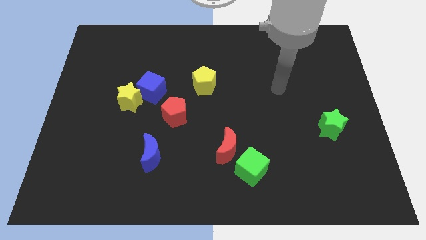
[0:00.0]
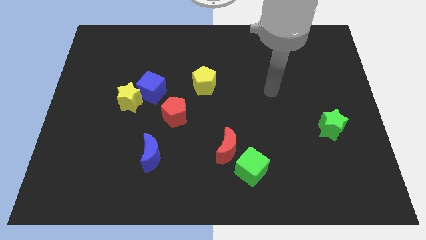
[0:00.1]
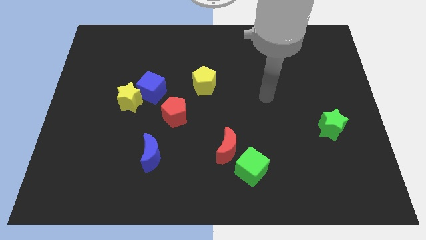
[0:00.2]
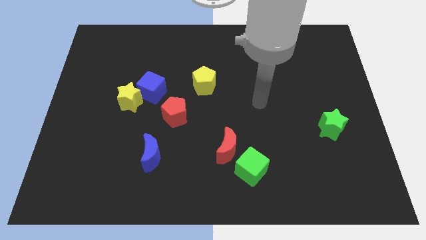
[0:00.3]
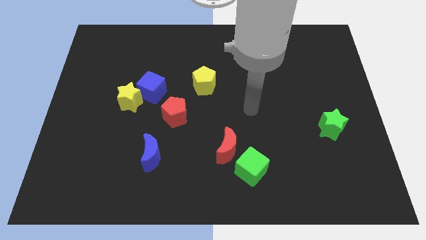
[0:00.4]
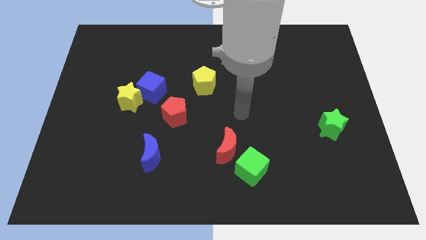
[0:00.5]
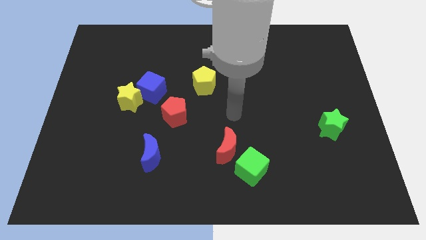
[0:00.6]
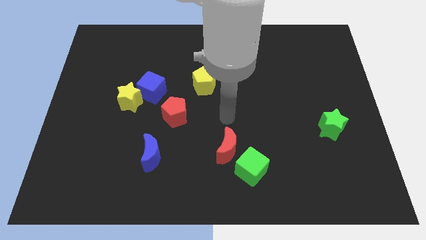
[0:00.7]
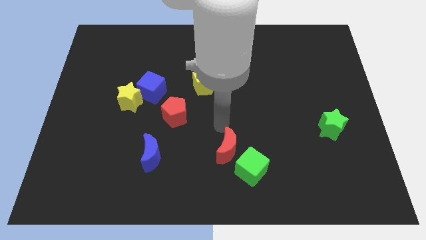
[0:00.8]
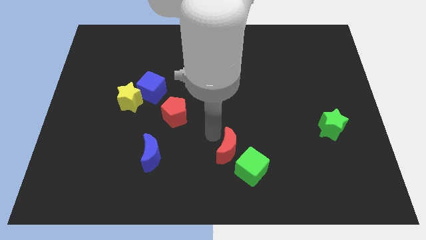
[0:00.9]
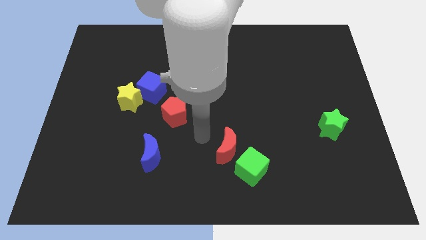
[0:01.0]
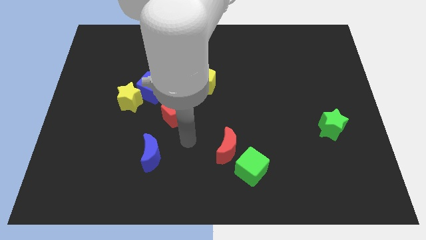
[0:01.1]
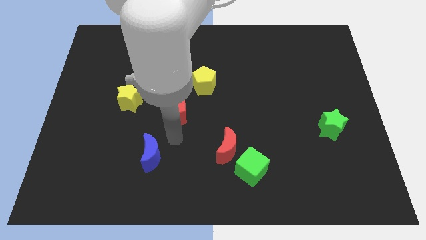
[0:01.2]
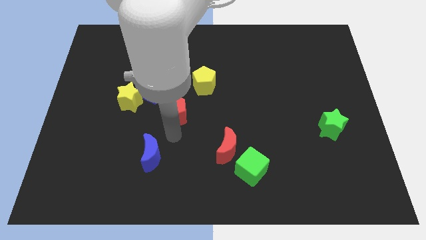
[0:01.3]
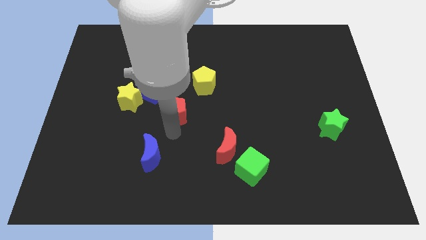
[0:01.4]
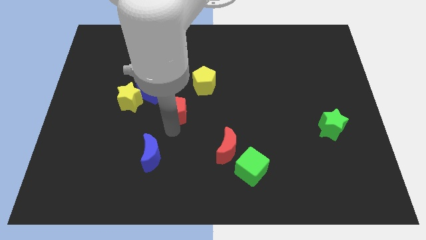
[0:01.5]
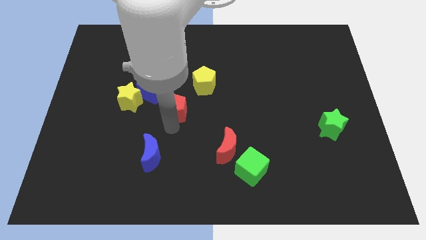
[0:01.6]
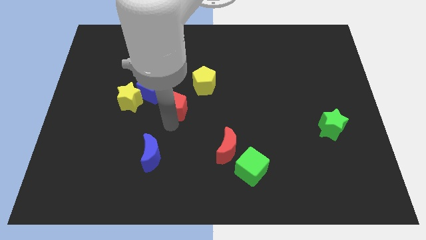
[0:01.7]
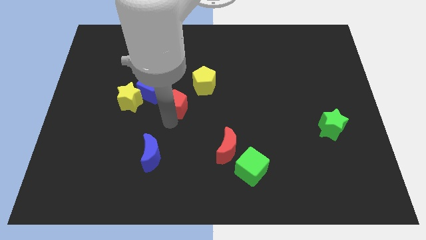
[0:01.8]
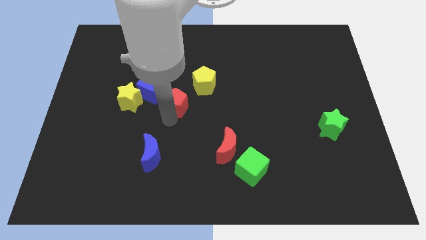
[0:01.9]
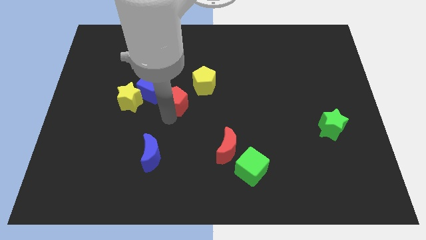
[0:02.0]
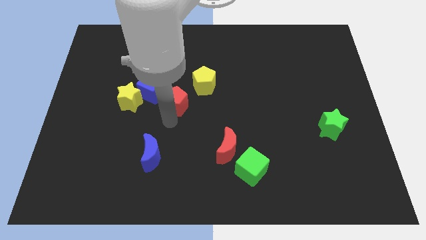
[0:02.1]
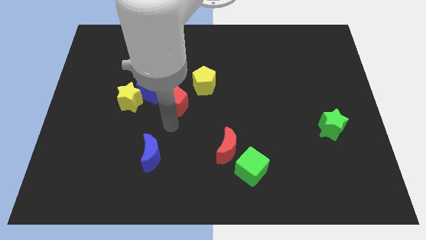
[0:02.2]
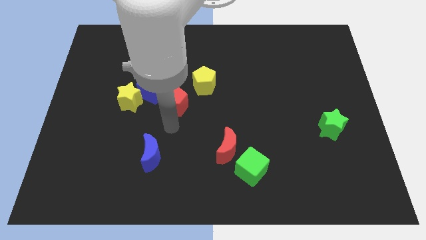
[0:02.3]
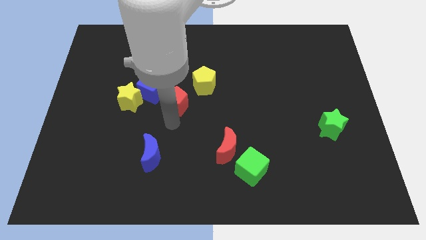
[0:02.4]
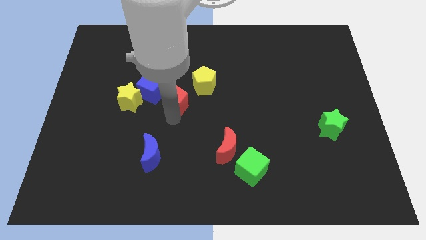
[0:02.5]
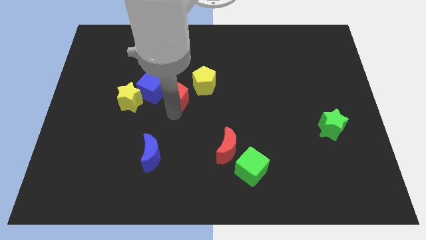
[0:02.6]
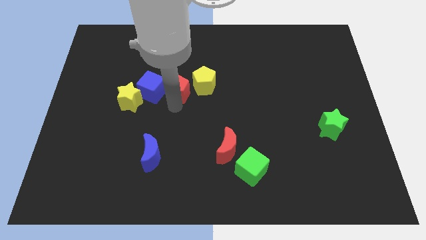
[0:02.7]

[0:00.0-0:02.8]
slide the red pentagon a little upwards

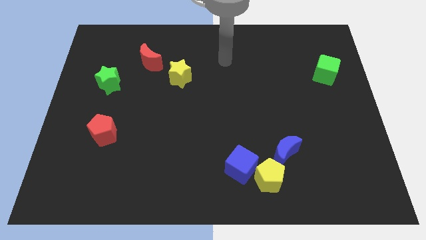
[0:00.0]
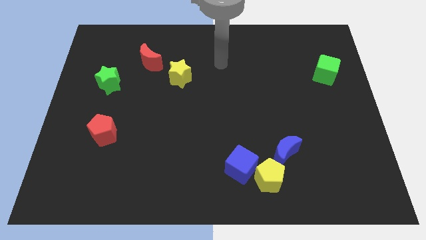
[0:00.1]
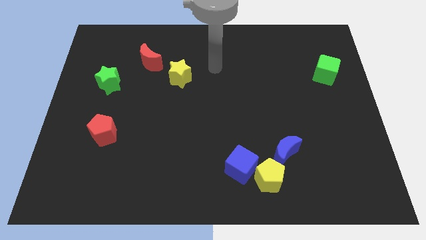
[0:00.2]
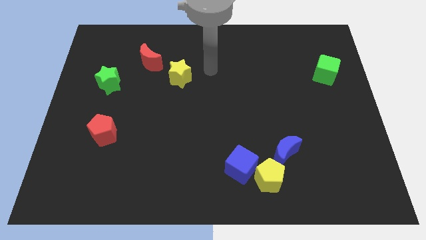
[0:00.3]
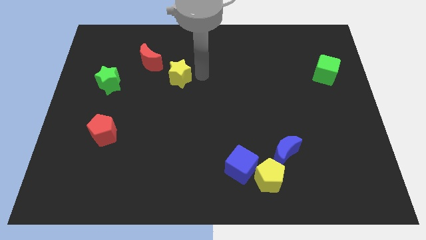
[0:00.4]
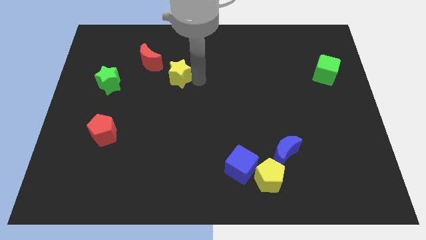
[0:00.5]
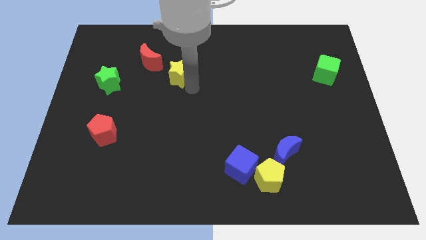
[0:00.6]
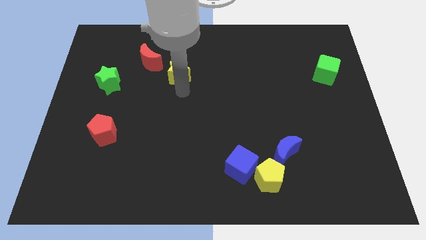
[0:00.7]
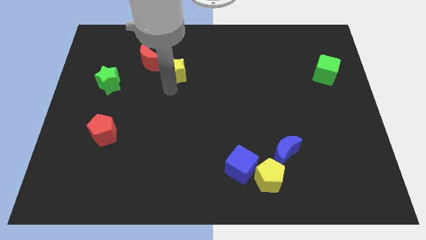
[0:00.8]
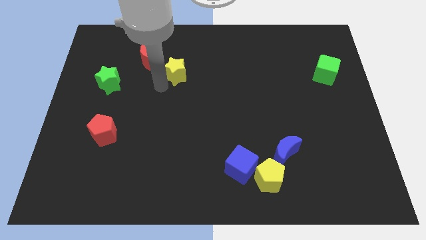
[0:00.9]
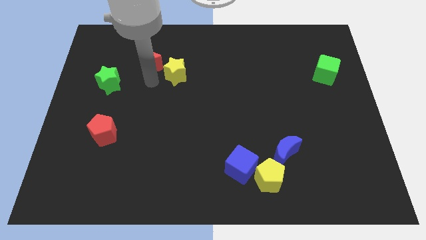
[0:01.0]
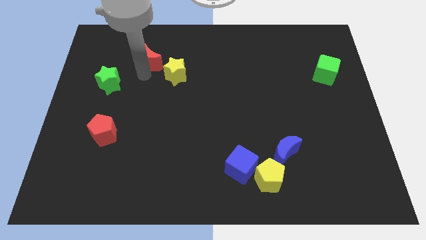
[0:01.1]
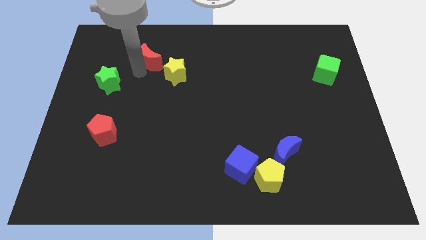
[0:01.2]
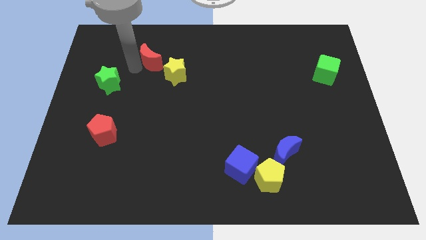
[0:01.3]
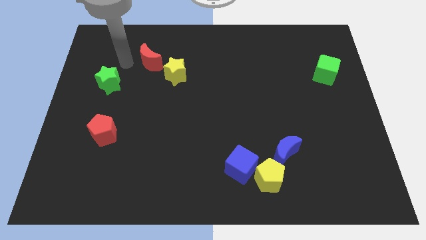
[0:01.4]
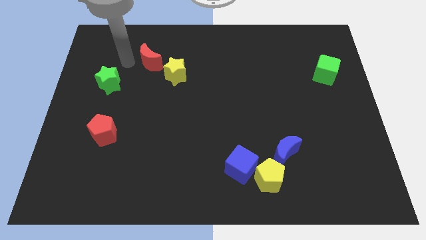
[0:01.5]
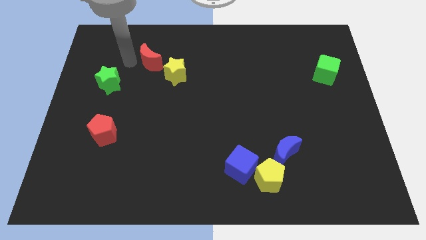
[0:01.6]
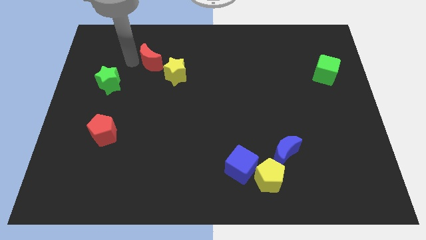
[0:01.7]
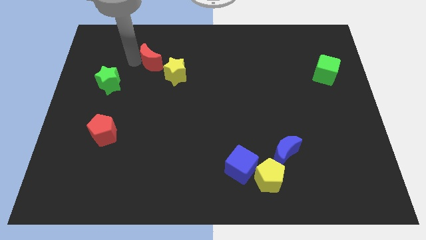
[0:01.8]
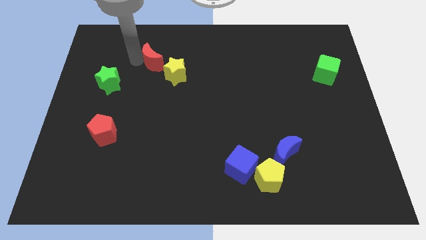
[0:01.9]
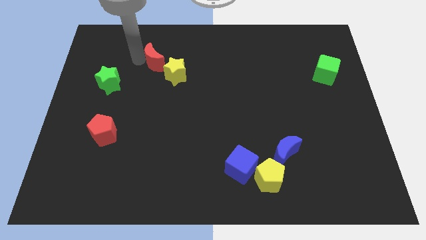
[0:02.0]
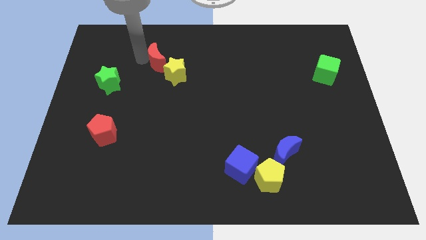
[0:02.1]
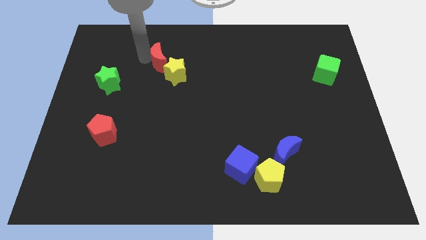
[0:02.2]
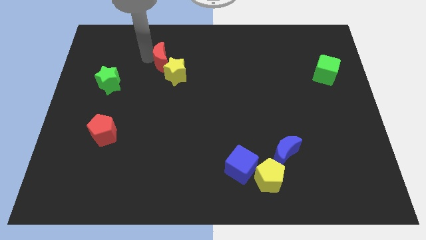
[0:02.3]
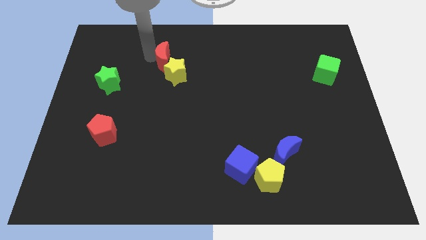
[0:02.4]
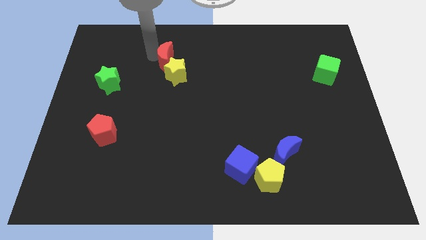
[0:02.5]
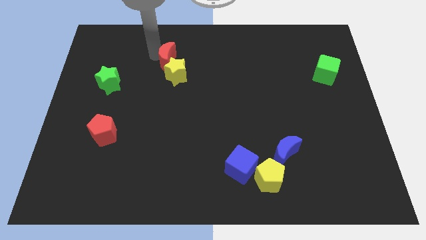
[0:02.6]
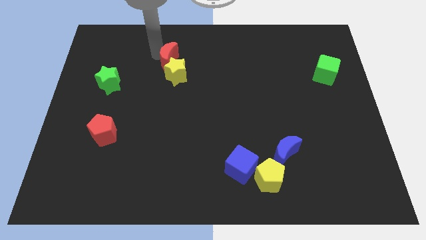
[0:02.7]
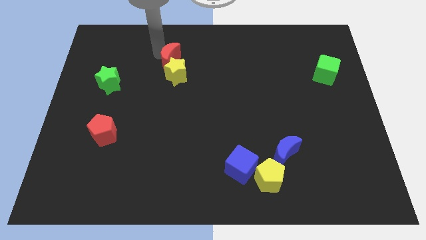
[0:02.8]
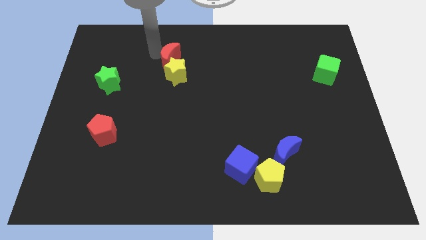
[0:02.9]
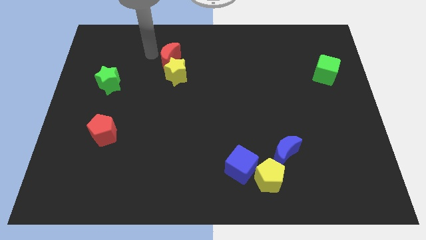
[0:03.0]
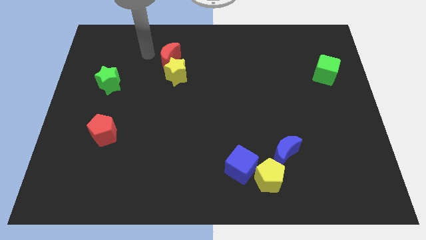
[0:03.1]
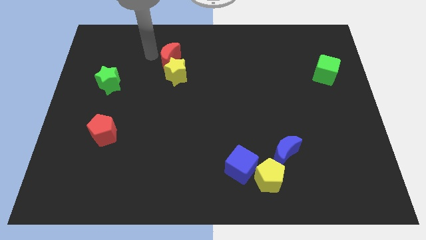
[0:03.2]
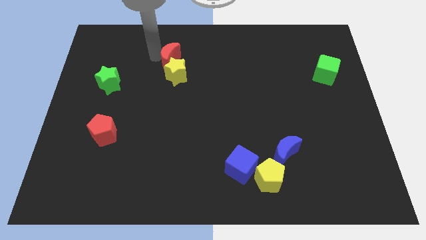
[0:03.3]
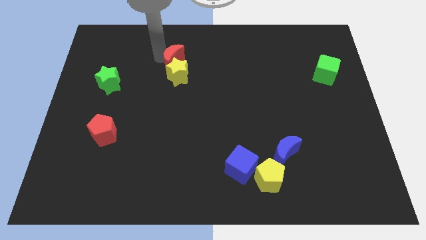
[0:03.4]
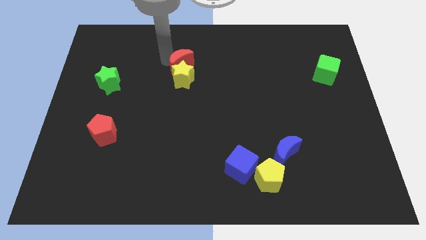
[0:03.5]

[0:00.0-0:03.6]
move the red moon slightly to the right

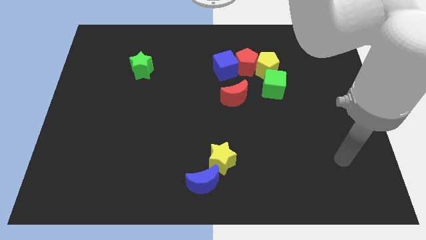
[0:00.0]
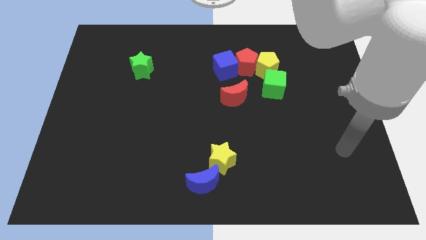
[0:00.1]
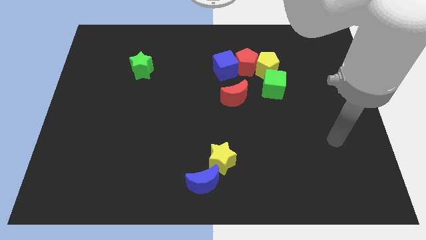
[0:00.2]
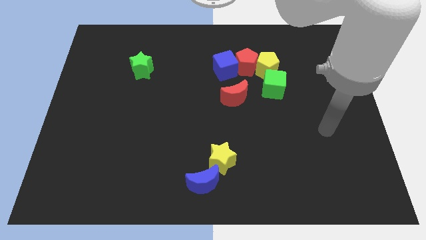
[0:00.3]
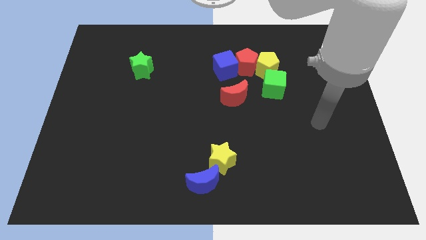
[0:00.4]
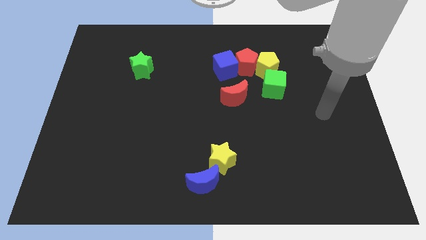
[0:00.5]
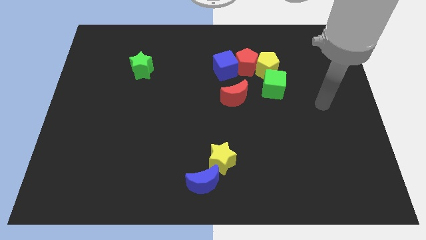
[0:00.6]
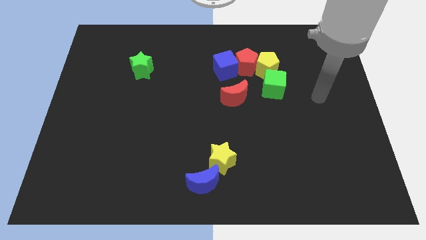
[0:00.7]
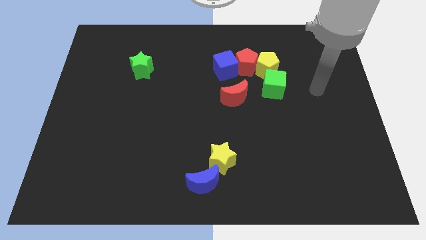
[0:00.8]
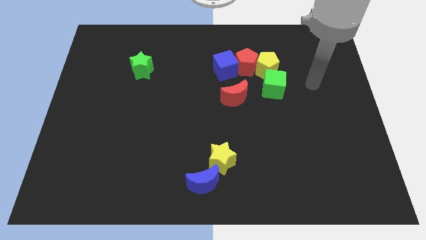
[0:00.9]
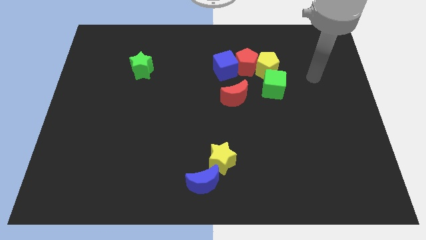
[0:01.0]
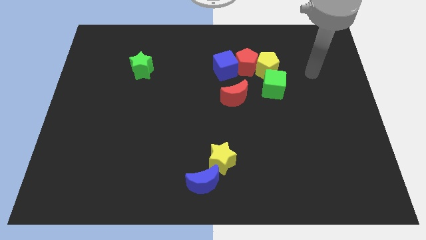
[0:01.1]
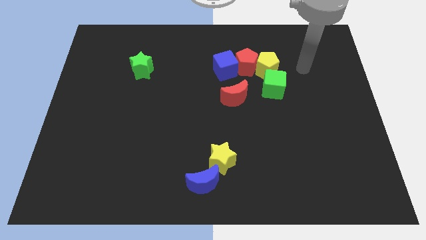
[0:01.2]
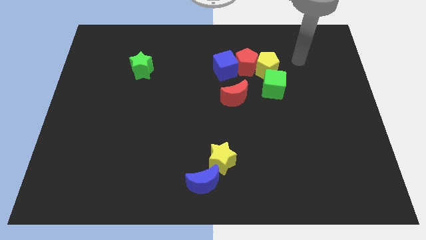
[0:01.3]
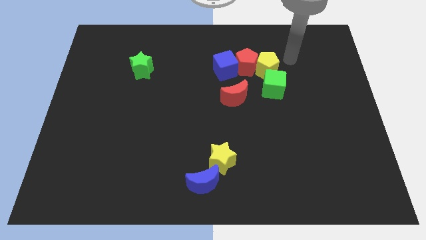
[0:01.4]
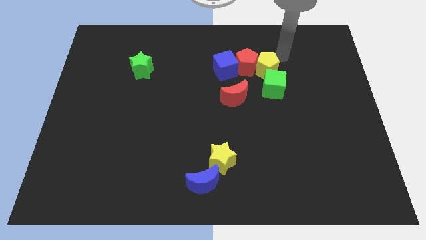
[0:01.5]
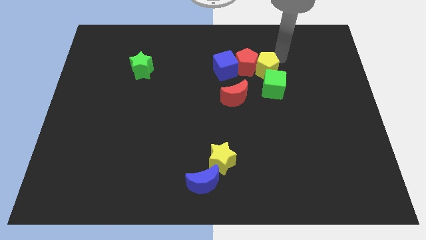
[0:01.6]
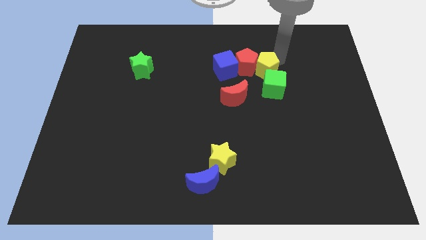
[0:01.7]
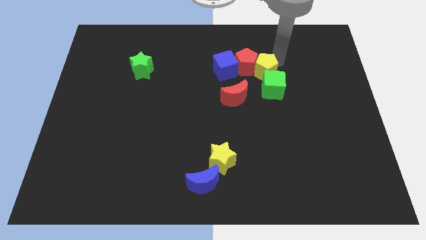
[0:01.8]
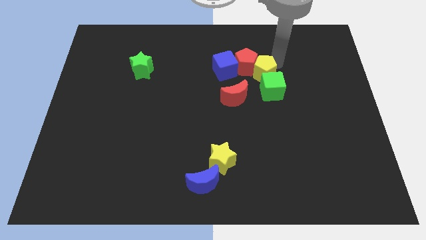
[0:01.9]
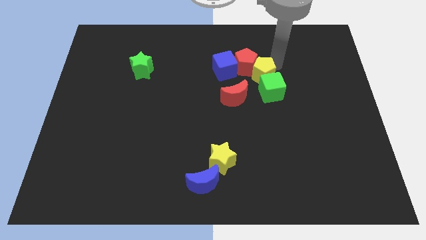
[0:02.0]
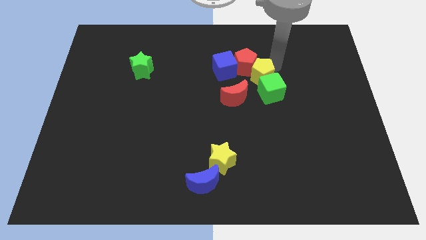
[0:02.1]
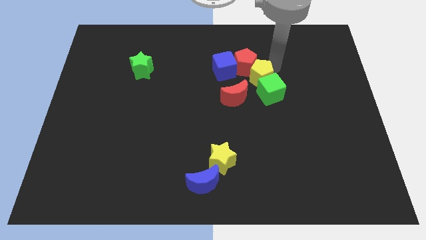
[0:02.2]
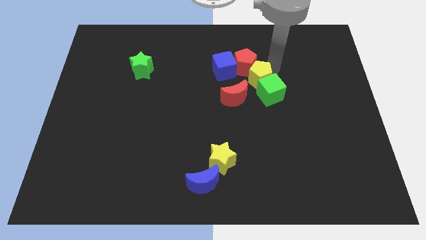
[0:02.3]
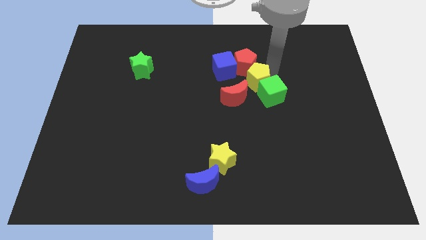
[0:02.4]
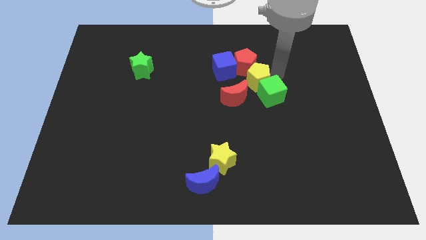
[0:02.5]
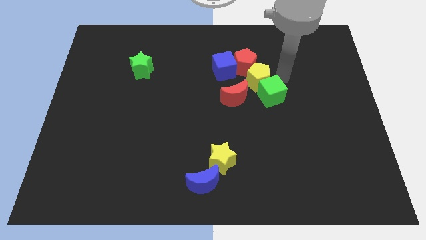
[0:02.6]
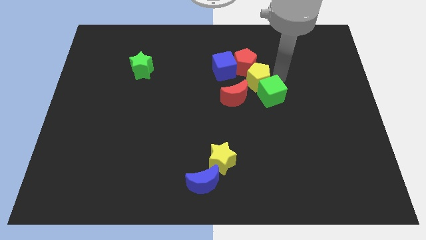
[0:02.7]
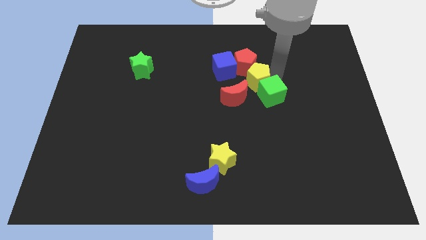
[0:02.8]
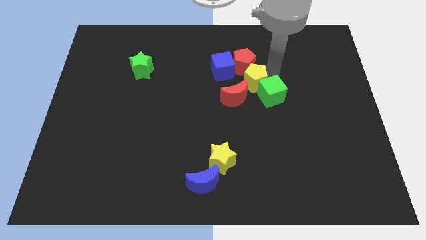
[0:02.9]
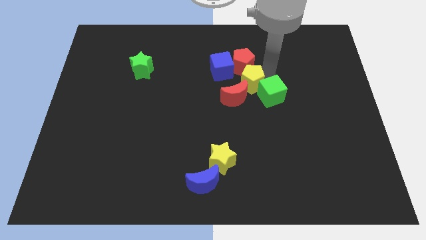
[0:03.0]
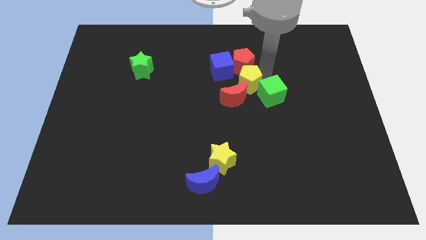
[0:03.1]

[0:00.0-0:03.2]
slide the yellow pentagon down and then to the left somewhat
